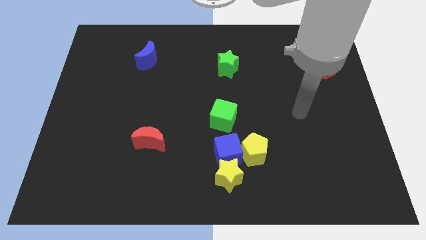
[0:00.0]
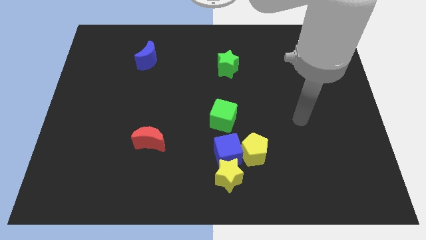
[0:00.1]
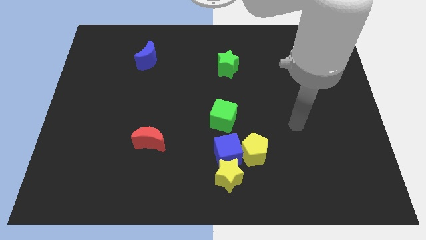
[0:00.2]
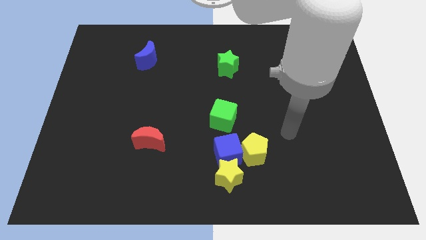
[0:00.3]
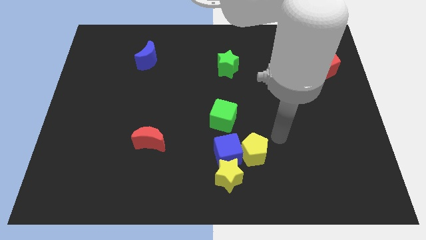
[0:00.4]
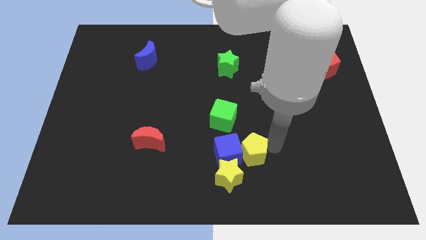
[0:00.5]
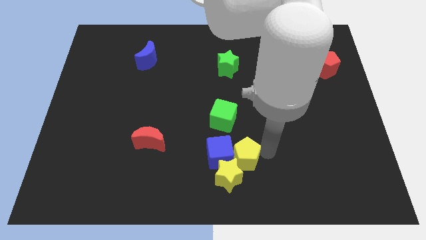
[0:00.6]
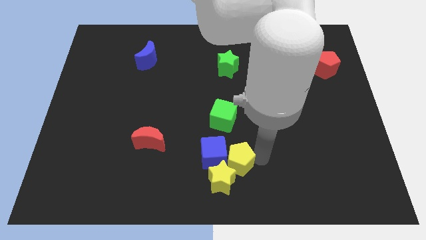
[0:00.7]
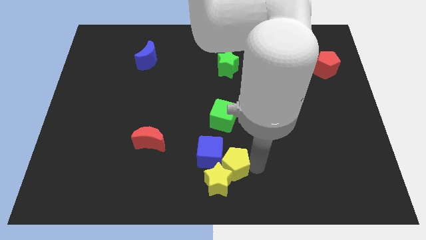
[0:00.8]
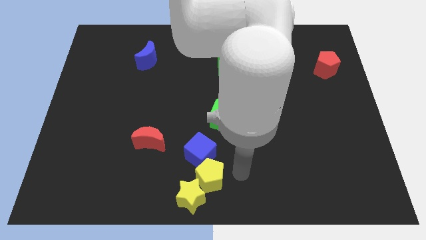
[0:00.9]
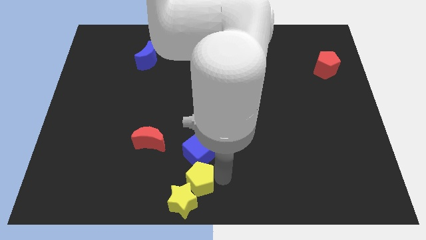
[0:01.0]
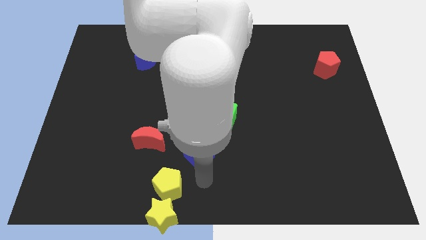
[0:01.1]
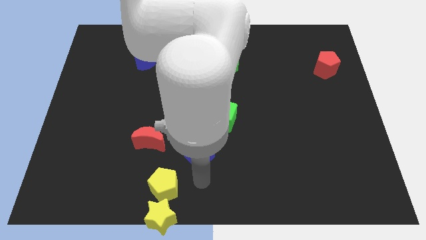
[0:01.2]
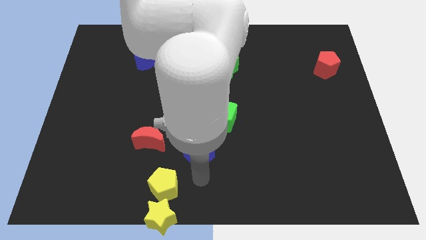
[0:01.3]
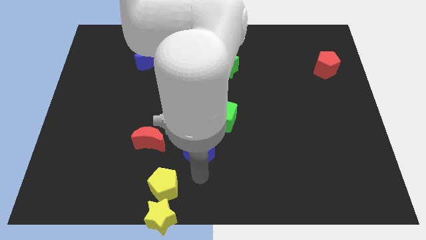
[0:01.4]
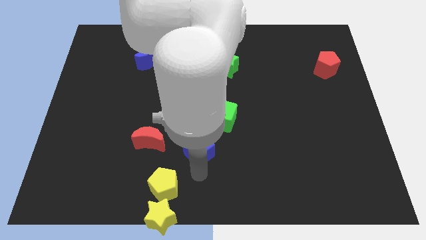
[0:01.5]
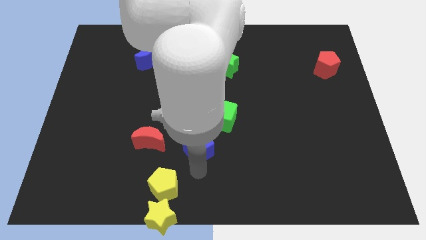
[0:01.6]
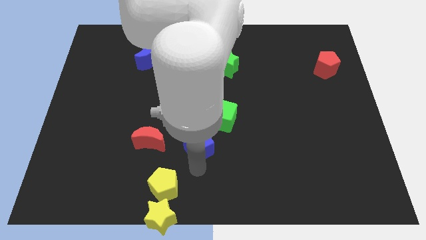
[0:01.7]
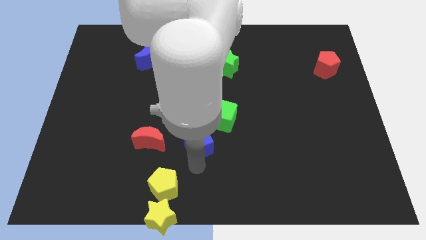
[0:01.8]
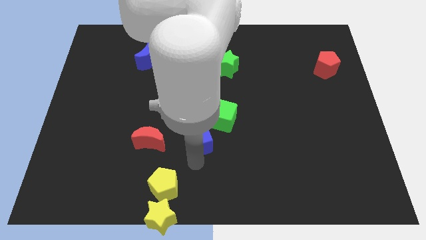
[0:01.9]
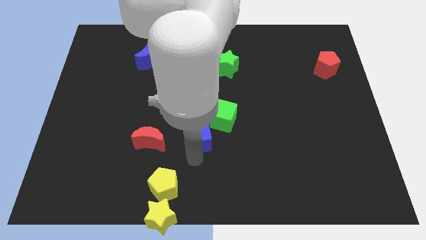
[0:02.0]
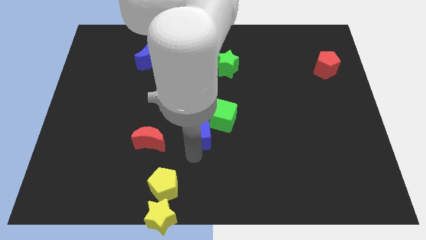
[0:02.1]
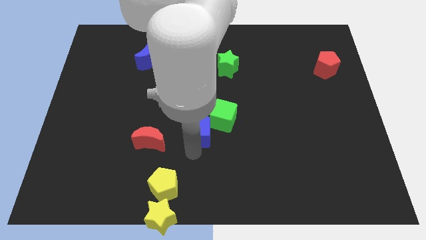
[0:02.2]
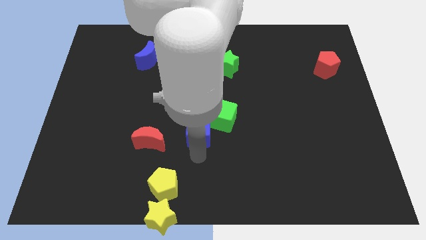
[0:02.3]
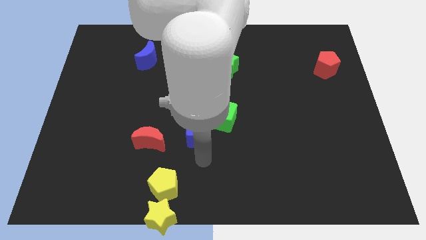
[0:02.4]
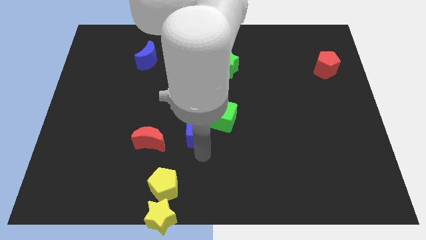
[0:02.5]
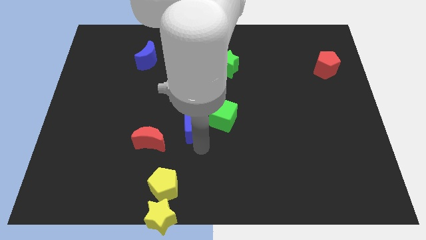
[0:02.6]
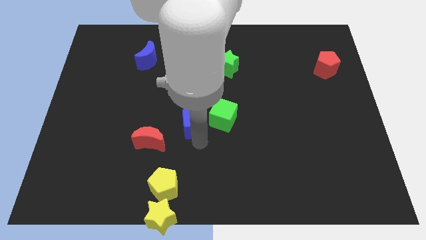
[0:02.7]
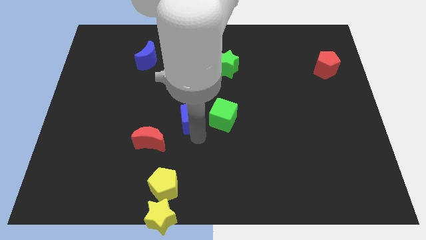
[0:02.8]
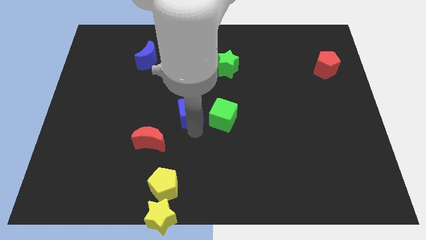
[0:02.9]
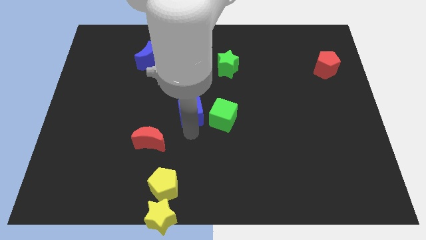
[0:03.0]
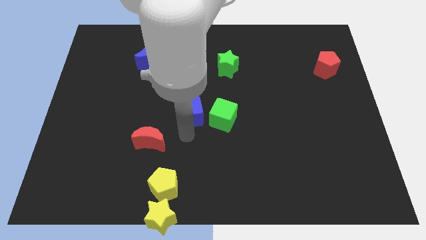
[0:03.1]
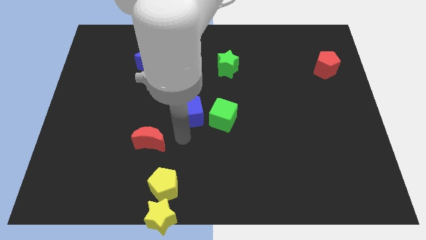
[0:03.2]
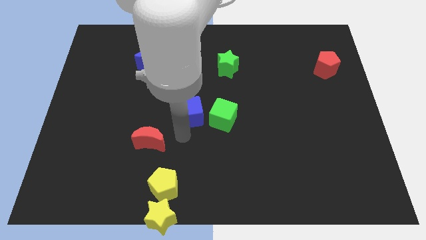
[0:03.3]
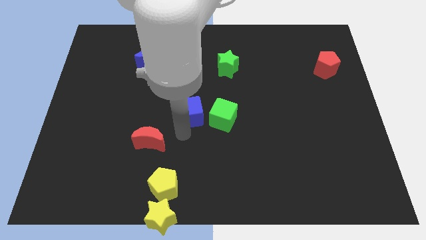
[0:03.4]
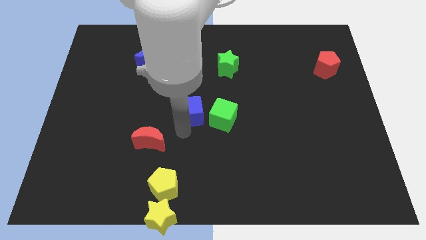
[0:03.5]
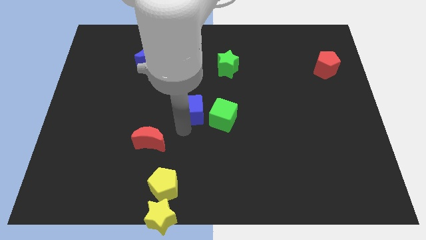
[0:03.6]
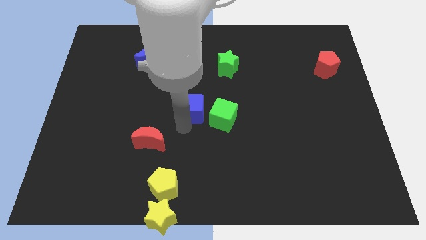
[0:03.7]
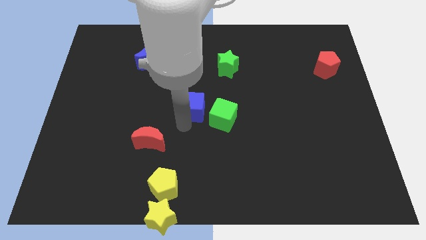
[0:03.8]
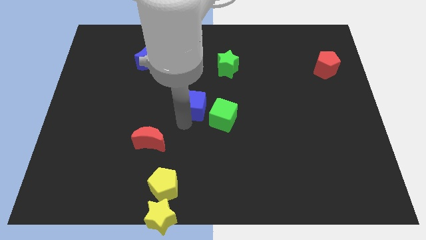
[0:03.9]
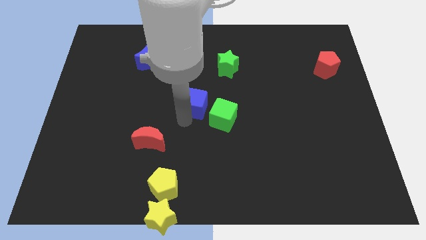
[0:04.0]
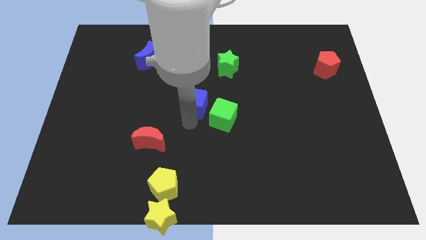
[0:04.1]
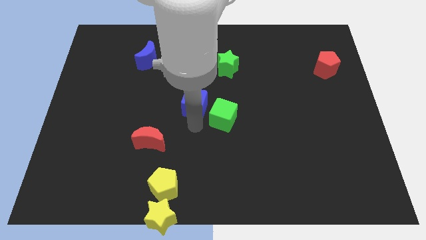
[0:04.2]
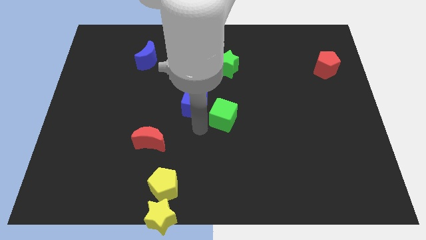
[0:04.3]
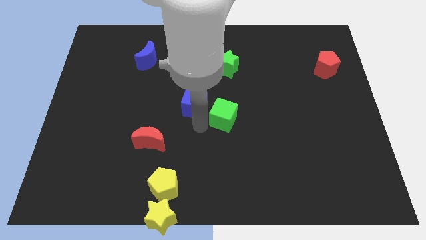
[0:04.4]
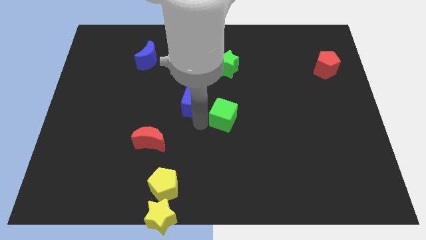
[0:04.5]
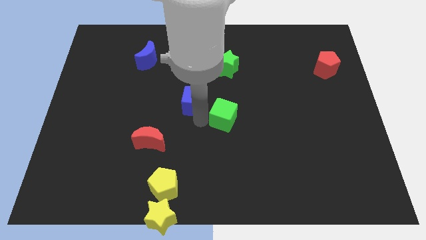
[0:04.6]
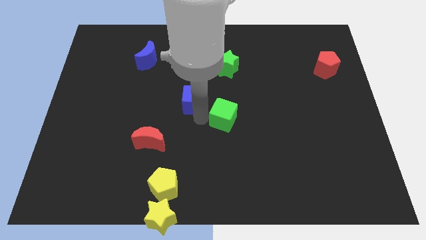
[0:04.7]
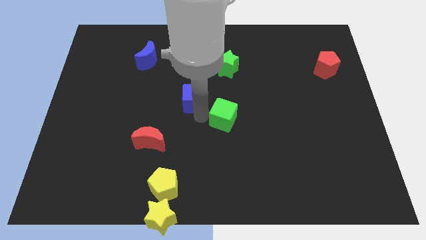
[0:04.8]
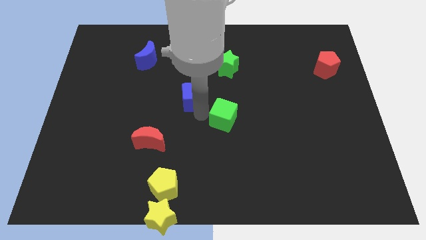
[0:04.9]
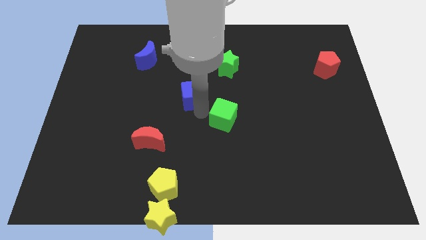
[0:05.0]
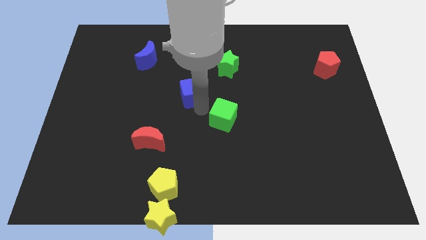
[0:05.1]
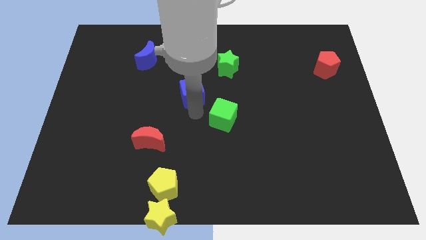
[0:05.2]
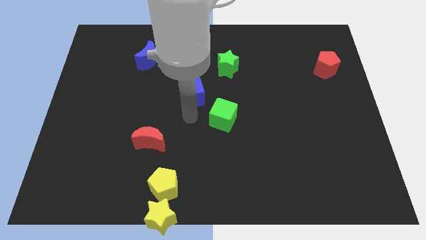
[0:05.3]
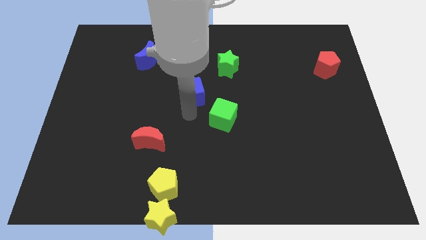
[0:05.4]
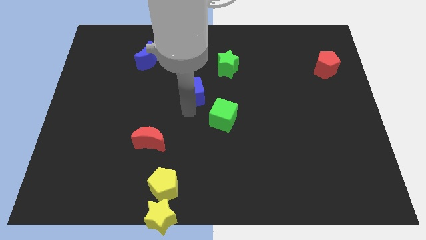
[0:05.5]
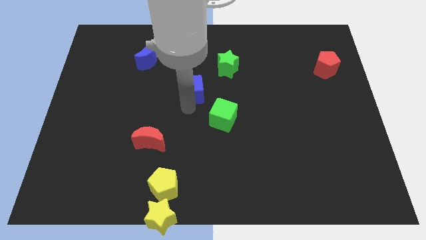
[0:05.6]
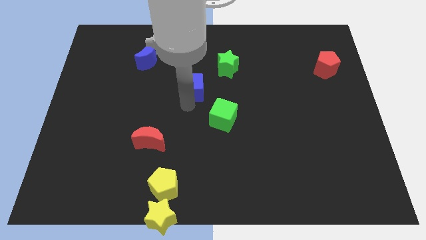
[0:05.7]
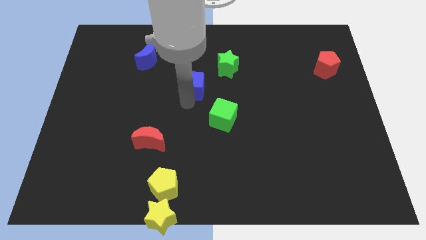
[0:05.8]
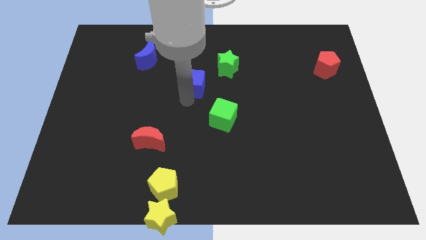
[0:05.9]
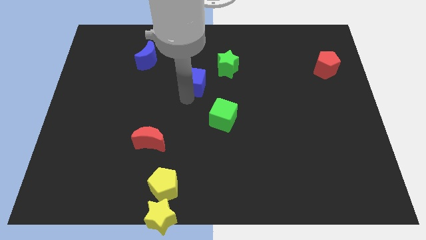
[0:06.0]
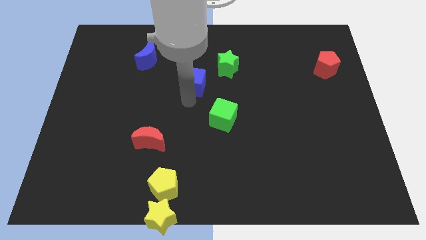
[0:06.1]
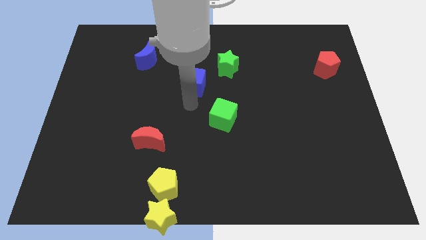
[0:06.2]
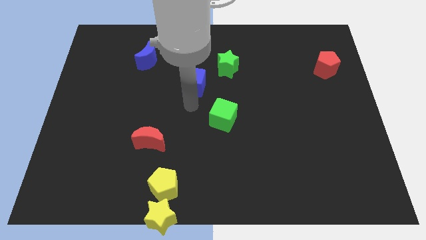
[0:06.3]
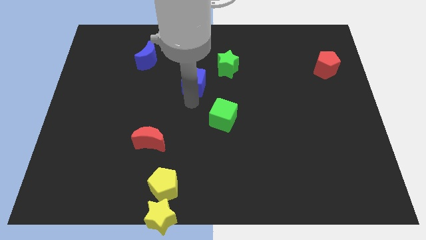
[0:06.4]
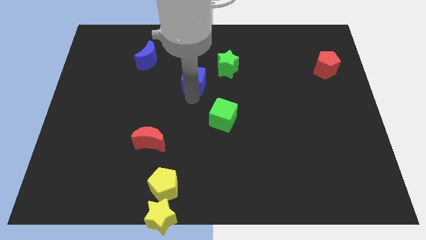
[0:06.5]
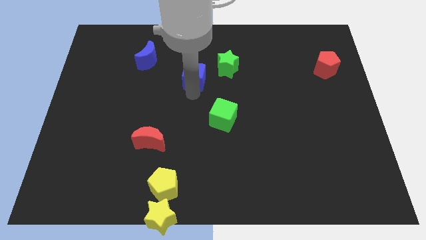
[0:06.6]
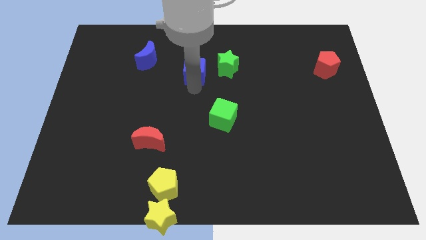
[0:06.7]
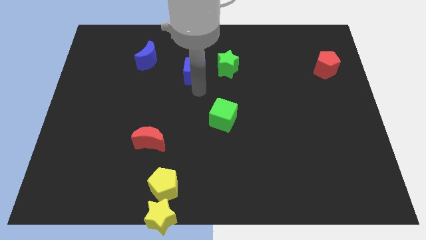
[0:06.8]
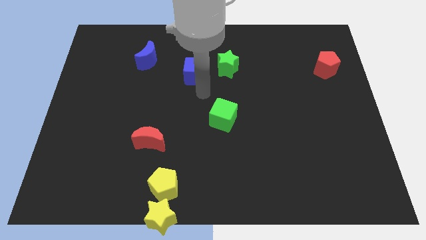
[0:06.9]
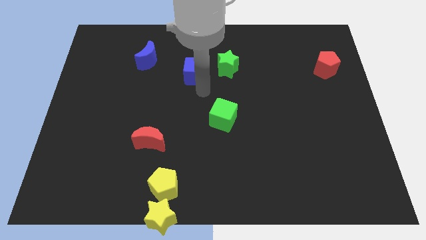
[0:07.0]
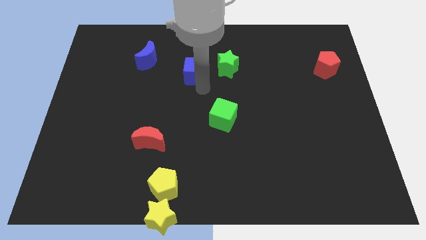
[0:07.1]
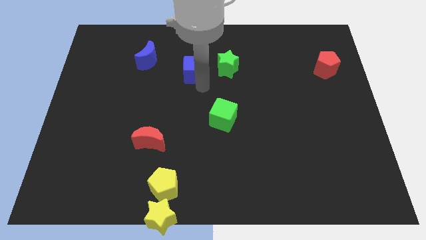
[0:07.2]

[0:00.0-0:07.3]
put the blue cube to the right side of the blue moon
